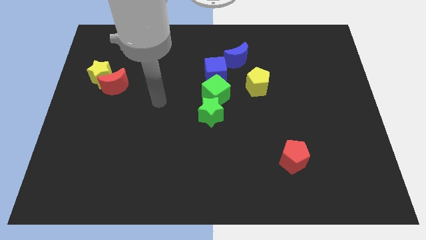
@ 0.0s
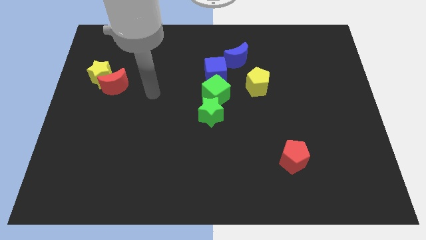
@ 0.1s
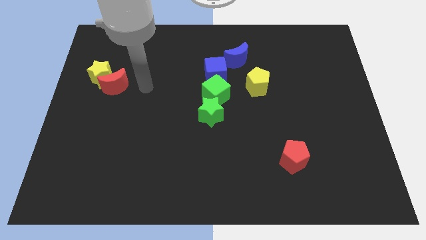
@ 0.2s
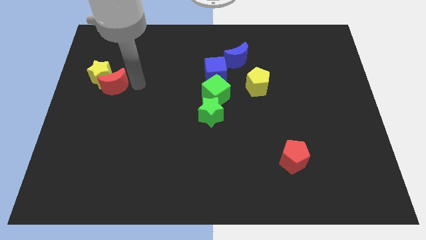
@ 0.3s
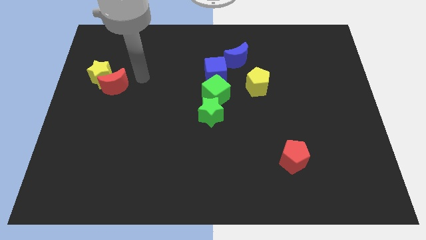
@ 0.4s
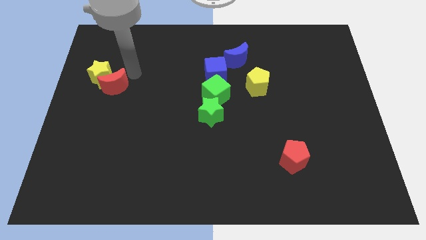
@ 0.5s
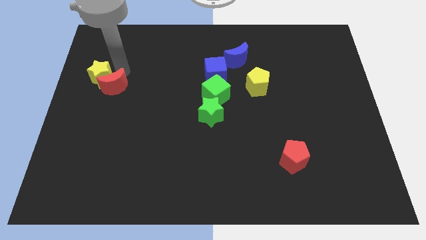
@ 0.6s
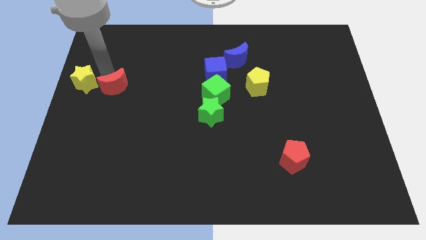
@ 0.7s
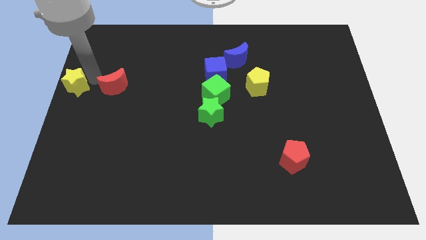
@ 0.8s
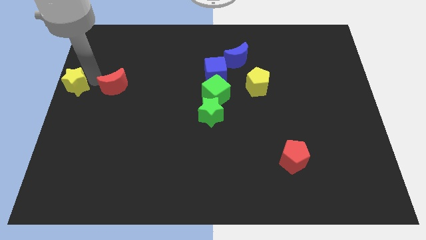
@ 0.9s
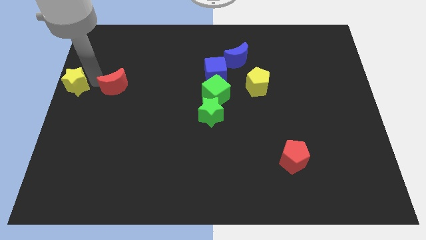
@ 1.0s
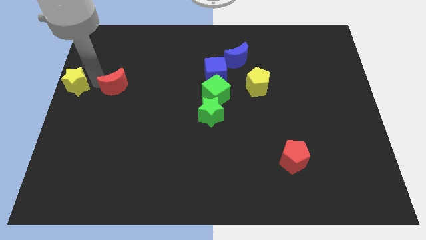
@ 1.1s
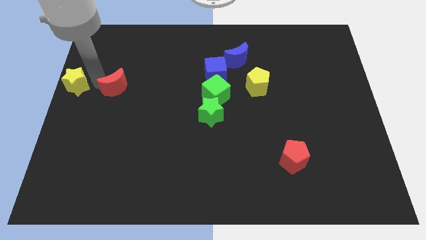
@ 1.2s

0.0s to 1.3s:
move the red moon away from the yellow star

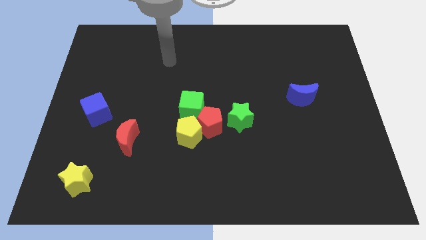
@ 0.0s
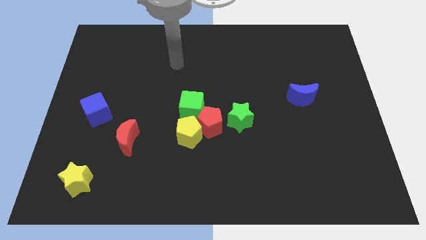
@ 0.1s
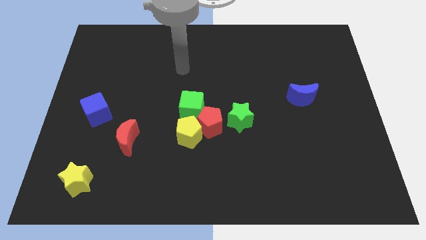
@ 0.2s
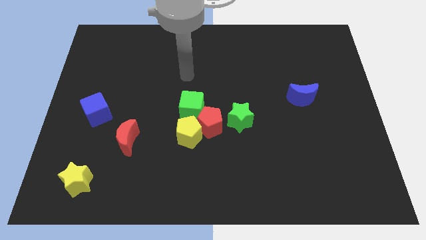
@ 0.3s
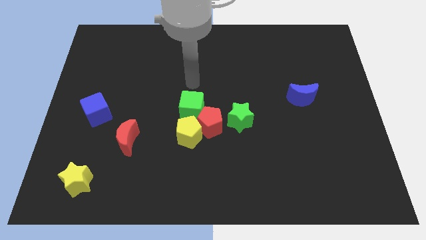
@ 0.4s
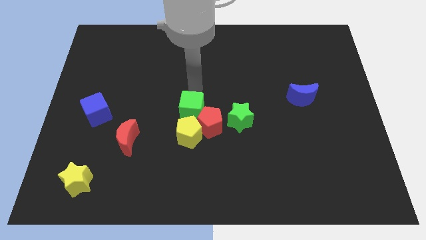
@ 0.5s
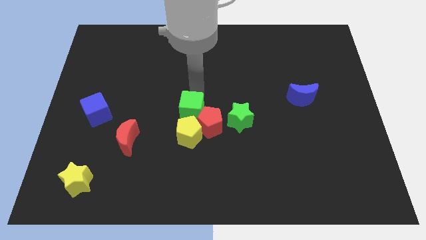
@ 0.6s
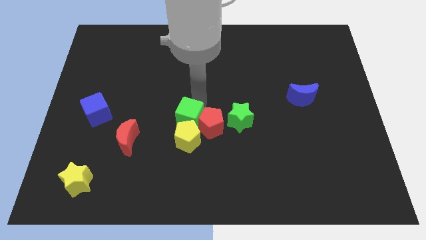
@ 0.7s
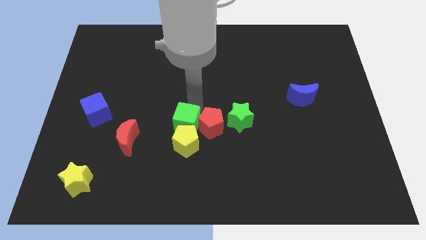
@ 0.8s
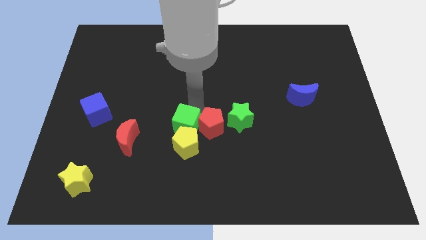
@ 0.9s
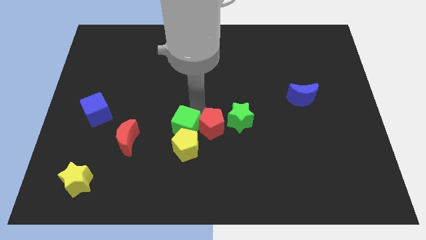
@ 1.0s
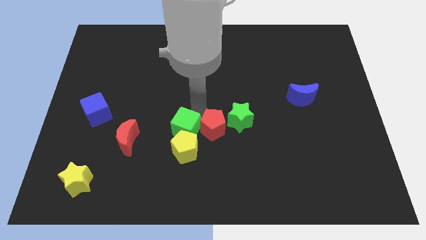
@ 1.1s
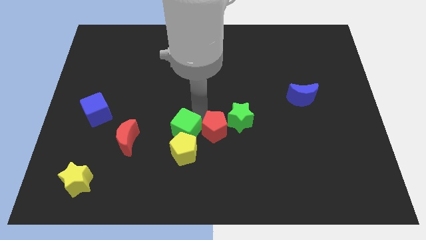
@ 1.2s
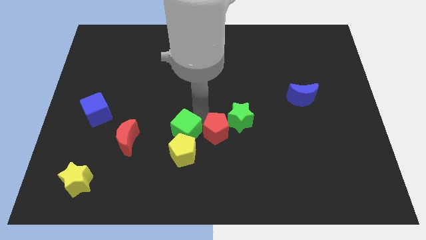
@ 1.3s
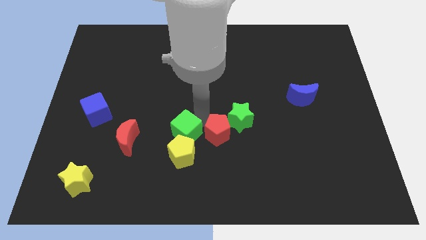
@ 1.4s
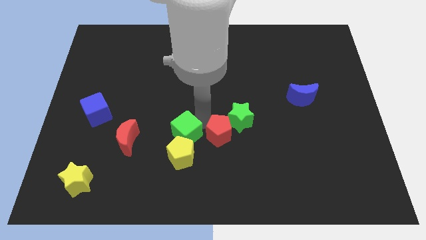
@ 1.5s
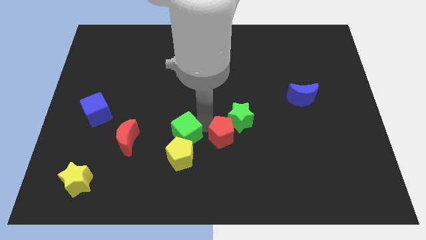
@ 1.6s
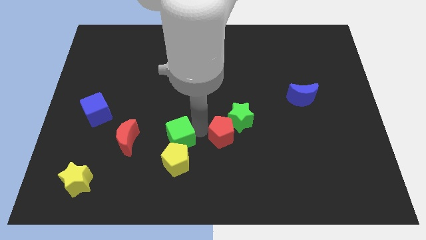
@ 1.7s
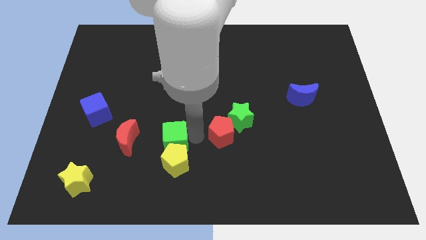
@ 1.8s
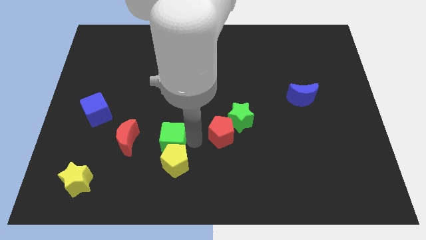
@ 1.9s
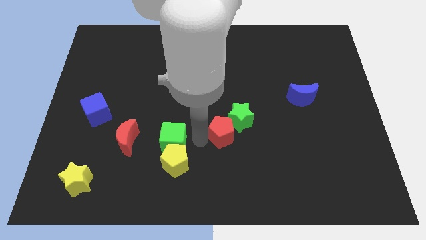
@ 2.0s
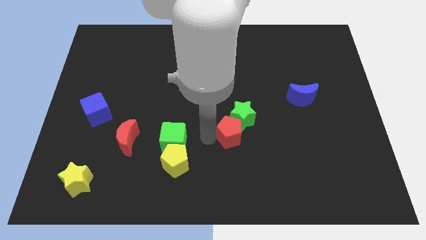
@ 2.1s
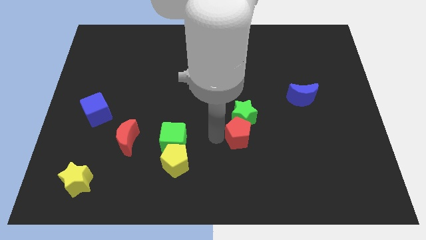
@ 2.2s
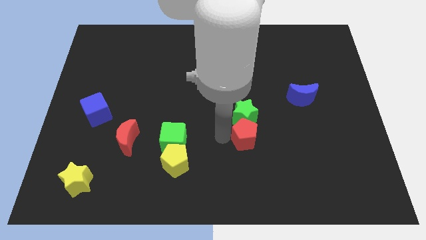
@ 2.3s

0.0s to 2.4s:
separate the red pentagon from the yellow pentagon, green cube, and green star

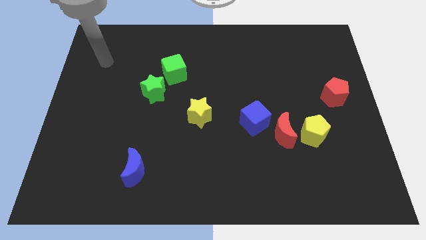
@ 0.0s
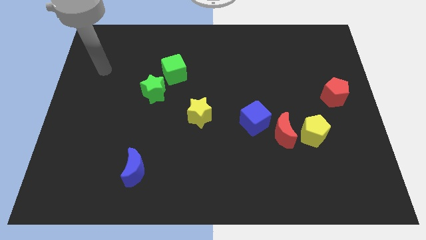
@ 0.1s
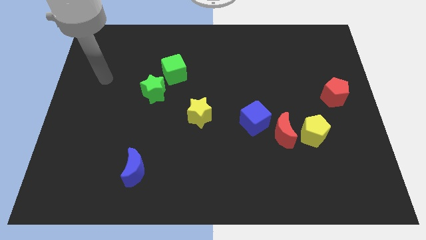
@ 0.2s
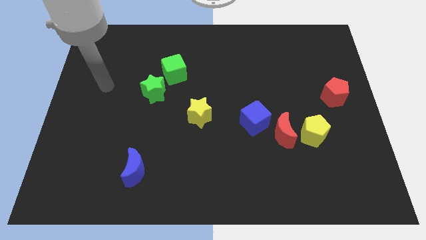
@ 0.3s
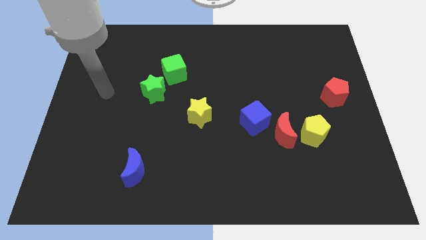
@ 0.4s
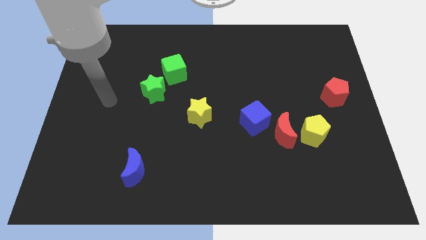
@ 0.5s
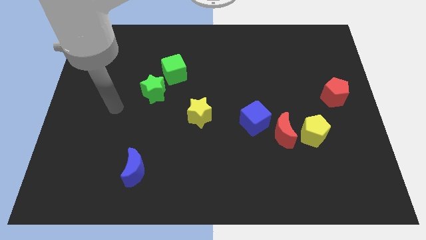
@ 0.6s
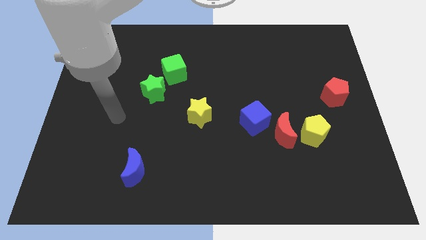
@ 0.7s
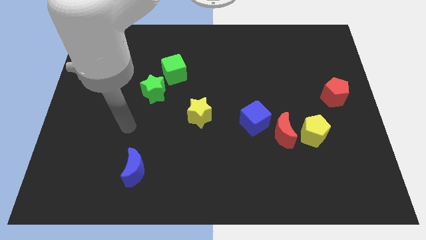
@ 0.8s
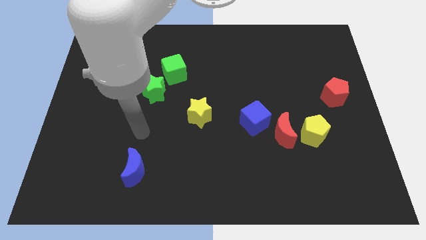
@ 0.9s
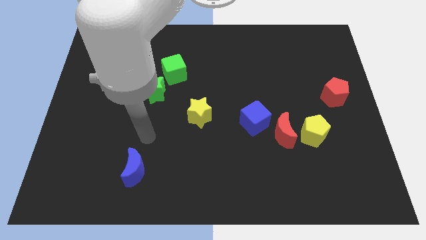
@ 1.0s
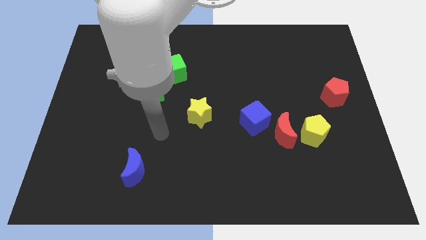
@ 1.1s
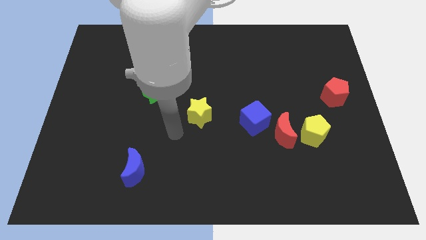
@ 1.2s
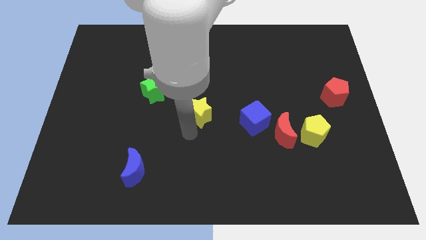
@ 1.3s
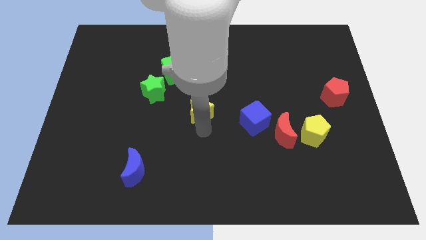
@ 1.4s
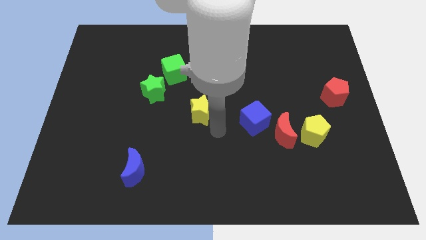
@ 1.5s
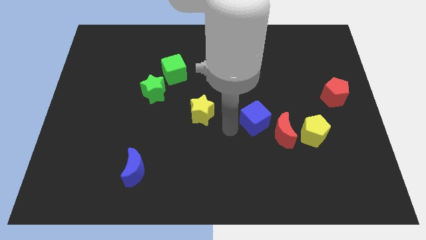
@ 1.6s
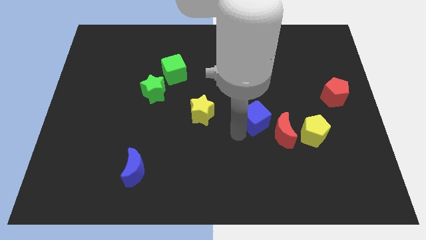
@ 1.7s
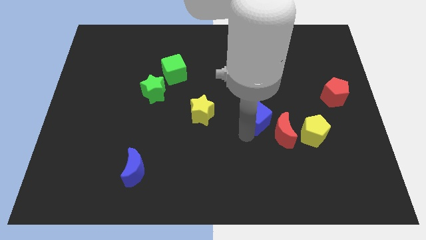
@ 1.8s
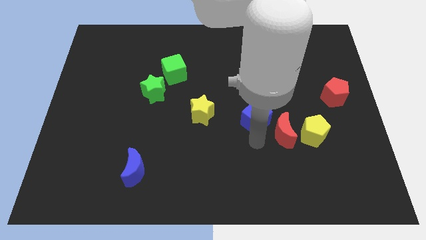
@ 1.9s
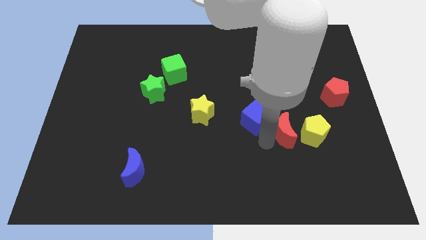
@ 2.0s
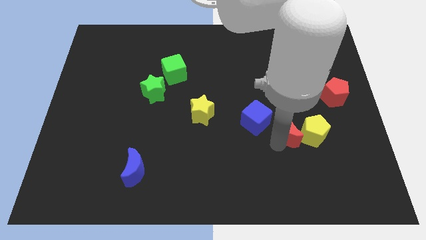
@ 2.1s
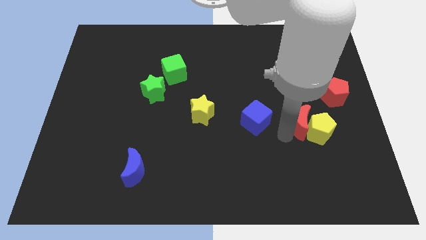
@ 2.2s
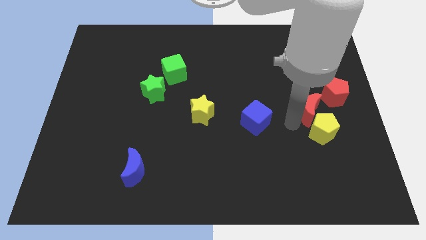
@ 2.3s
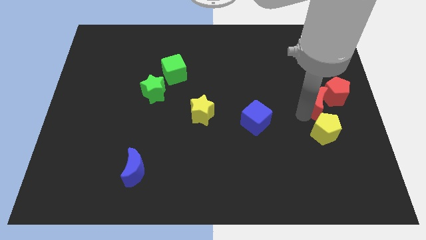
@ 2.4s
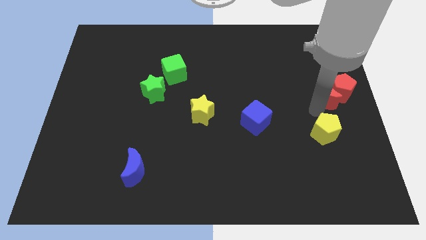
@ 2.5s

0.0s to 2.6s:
pull the yellow pentagon apart from the red moon

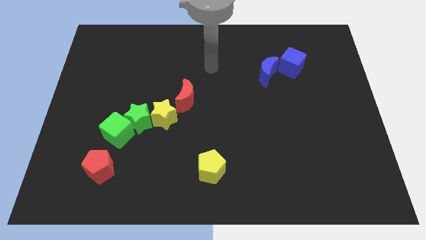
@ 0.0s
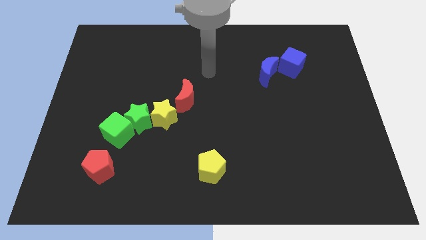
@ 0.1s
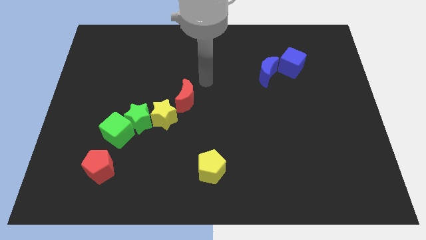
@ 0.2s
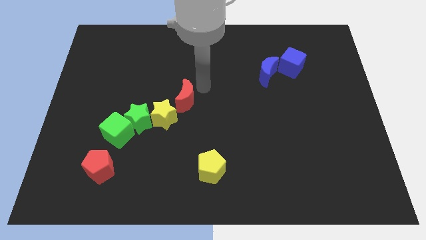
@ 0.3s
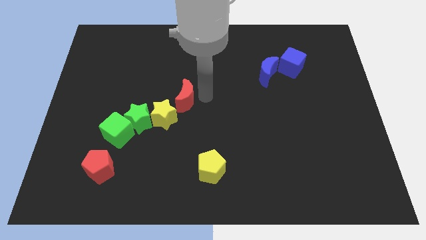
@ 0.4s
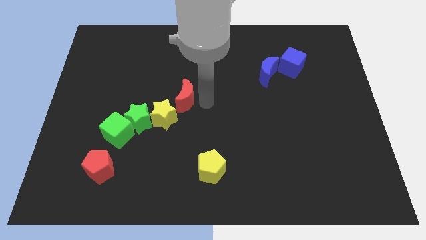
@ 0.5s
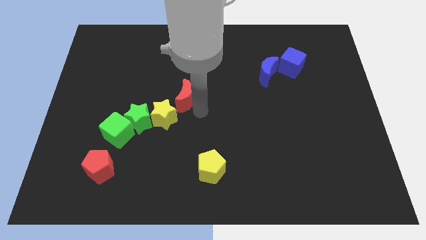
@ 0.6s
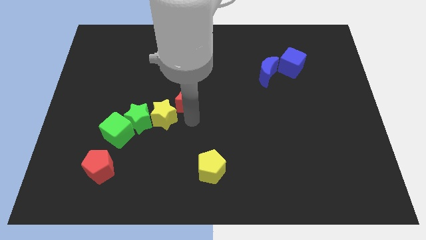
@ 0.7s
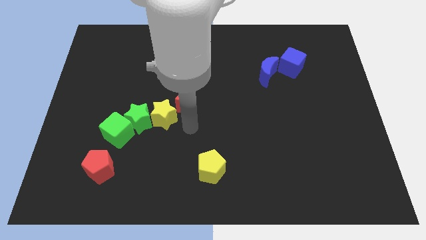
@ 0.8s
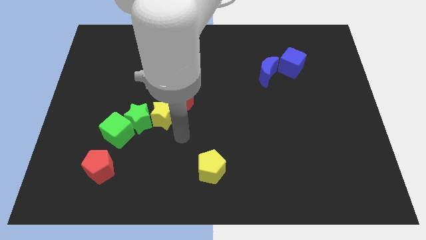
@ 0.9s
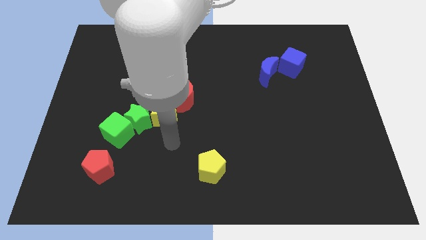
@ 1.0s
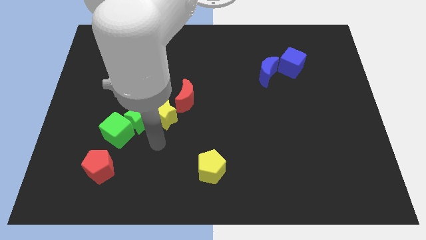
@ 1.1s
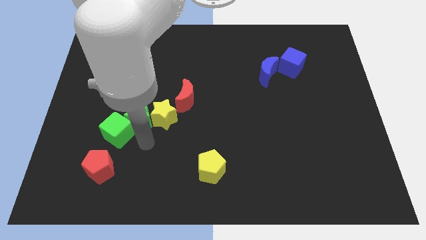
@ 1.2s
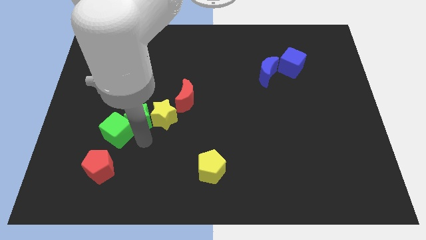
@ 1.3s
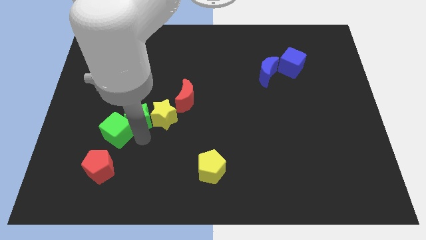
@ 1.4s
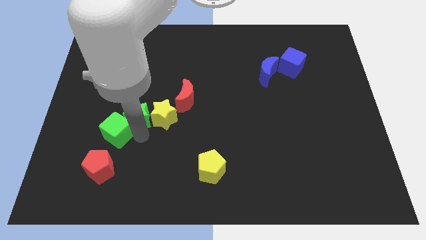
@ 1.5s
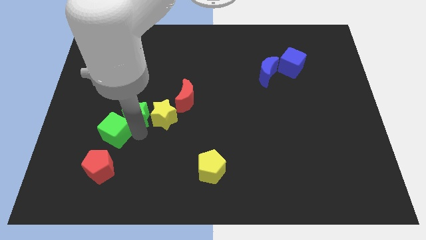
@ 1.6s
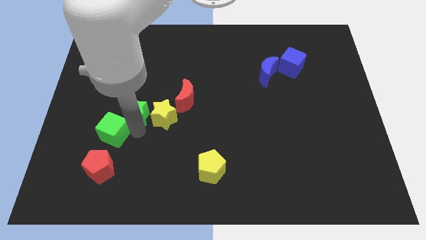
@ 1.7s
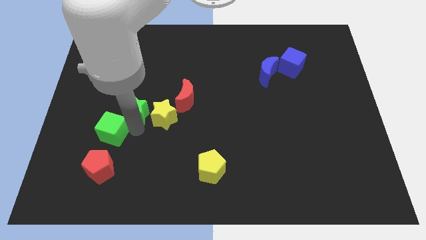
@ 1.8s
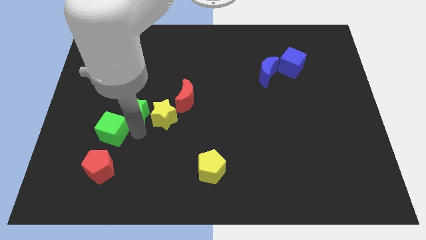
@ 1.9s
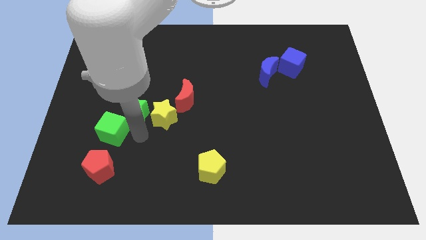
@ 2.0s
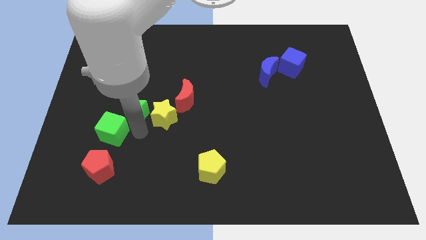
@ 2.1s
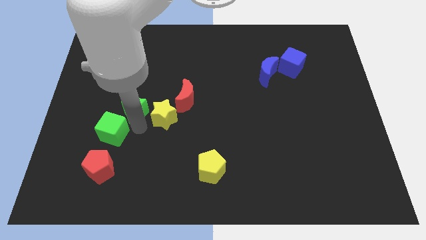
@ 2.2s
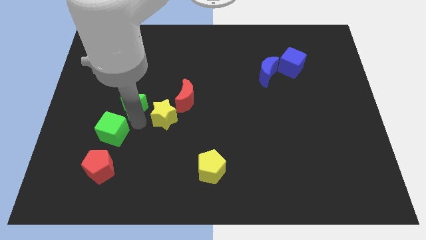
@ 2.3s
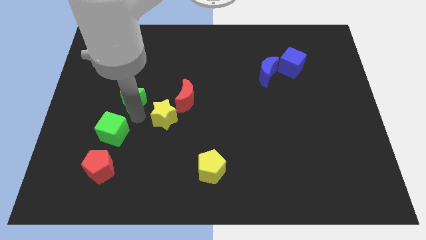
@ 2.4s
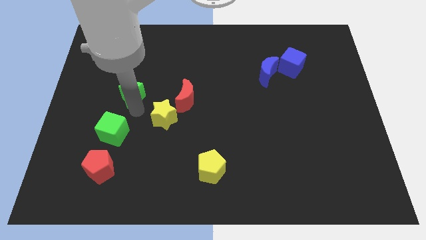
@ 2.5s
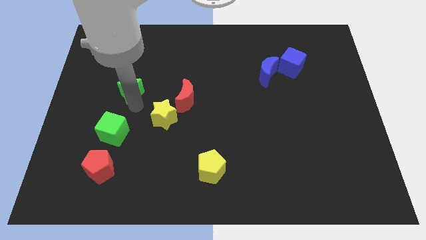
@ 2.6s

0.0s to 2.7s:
pull the green star apart from the green cube and yellow star

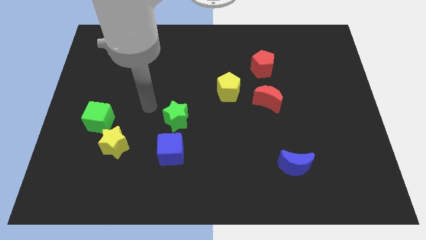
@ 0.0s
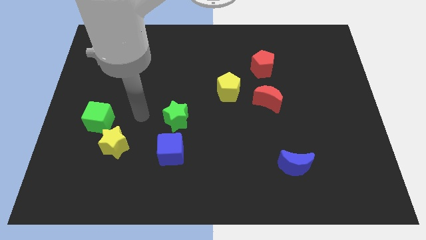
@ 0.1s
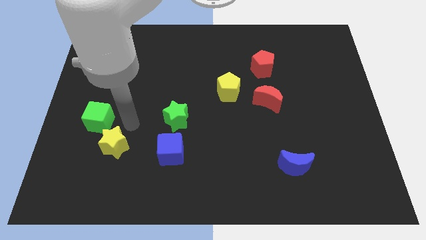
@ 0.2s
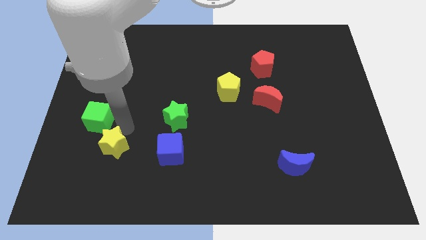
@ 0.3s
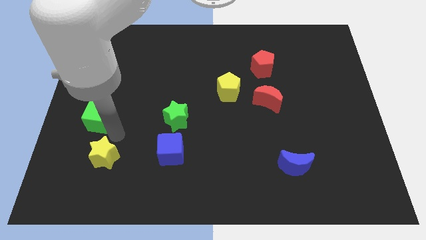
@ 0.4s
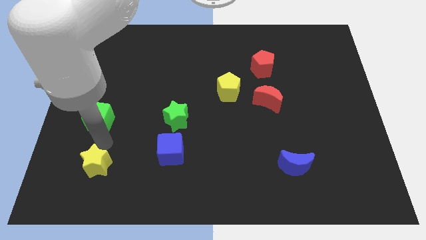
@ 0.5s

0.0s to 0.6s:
pull the green cube apart from the yellow star
